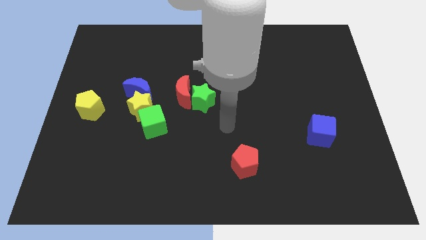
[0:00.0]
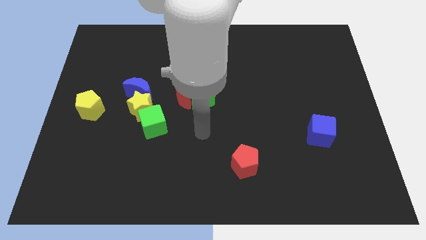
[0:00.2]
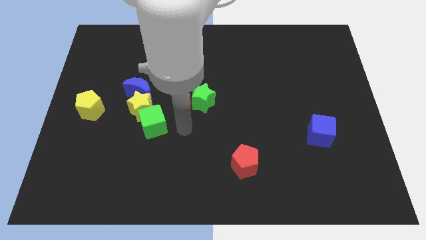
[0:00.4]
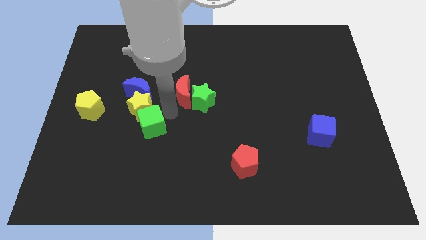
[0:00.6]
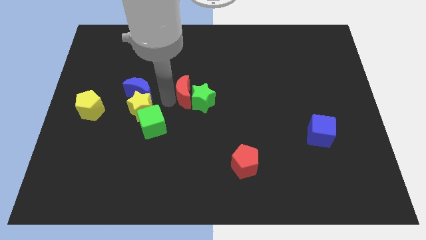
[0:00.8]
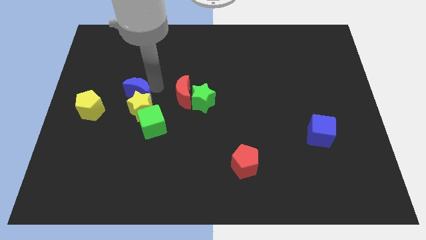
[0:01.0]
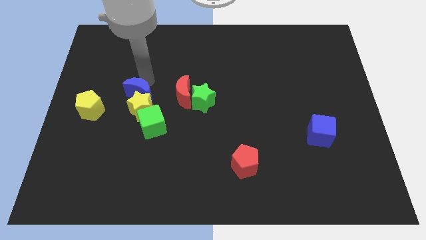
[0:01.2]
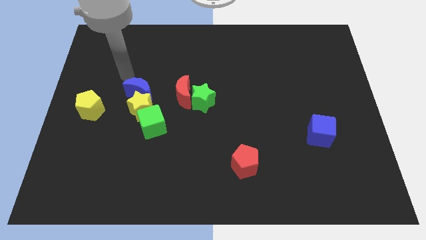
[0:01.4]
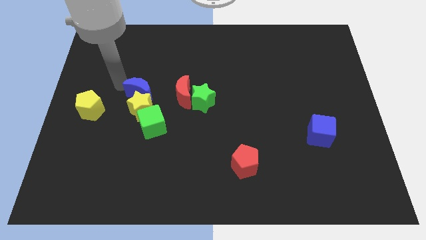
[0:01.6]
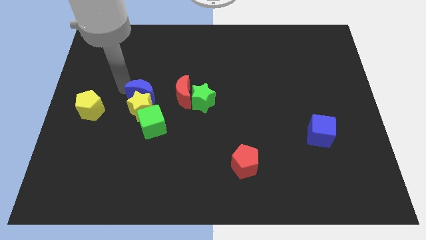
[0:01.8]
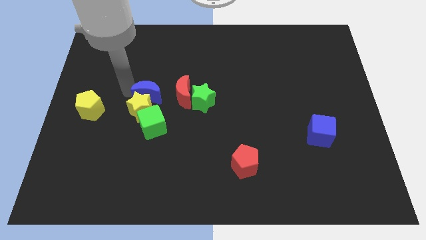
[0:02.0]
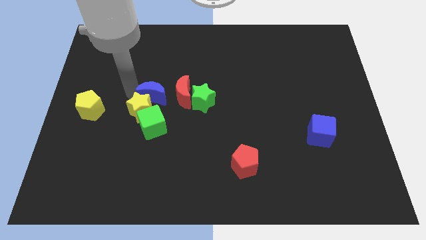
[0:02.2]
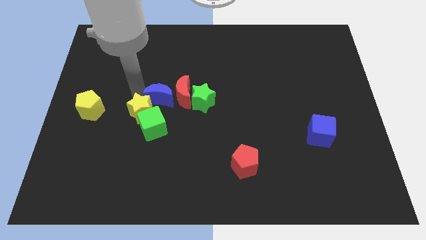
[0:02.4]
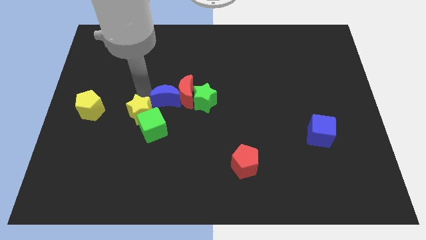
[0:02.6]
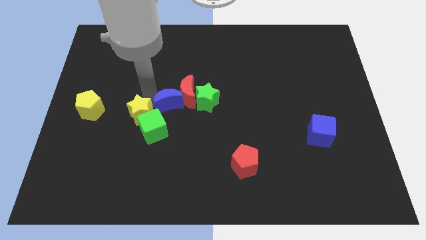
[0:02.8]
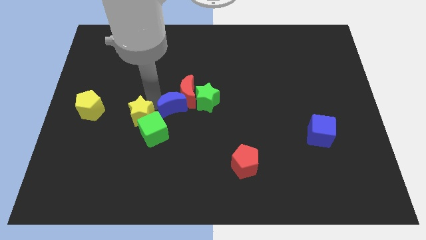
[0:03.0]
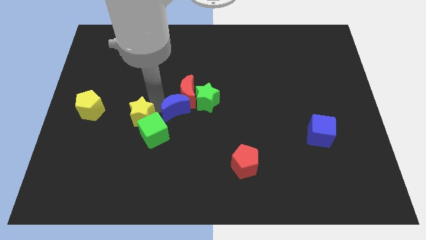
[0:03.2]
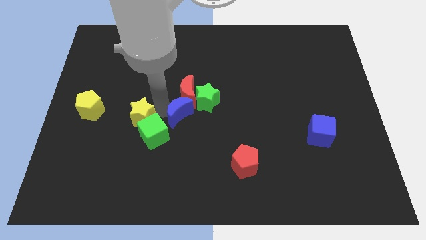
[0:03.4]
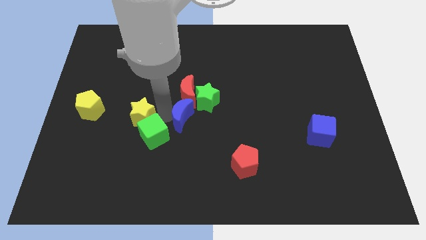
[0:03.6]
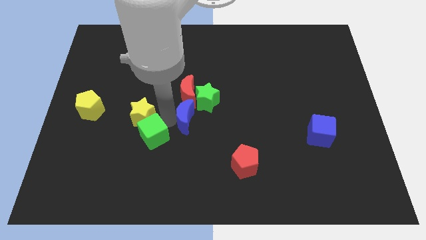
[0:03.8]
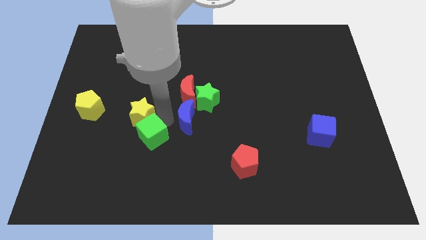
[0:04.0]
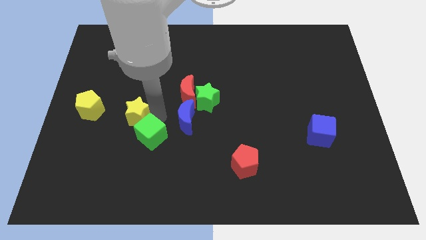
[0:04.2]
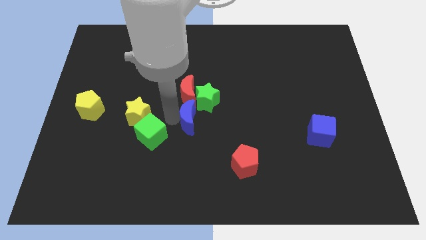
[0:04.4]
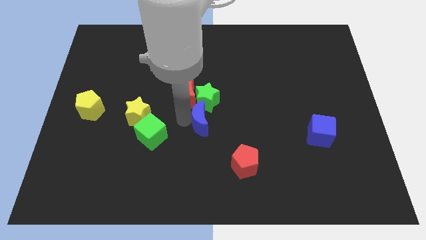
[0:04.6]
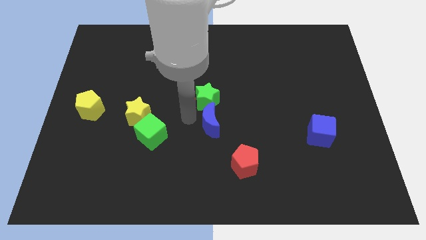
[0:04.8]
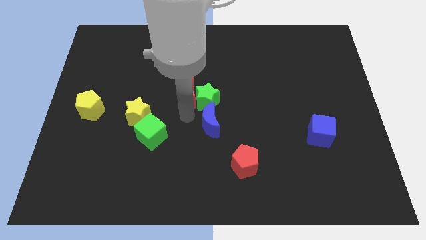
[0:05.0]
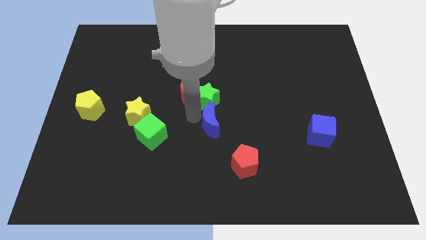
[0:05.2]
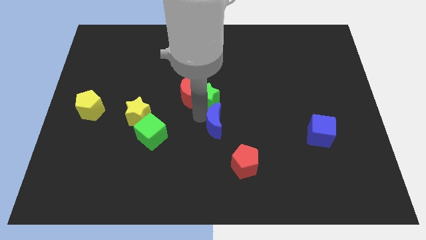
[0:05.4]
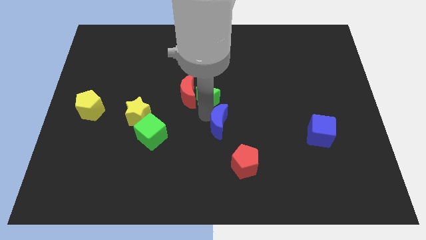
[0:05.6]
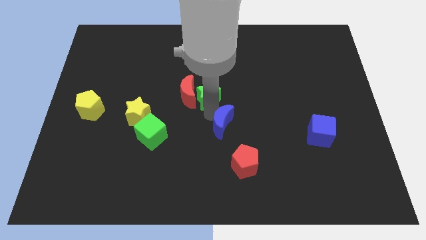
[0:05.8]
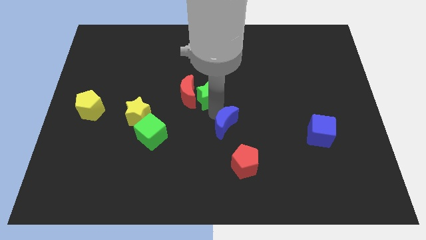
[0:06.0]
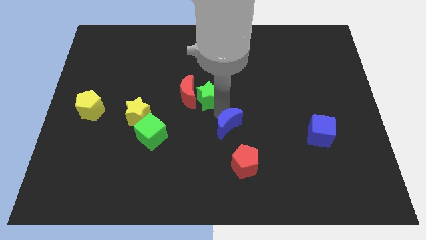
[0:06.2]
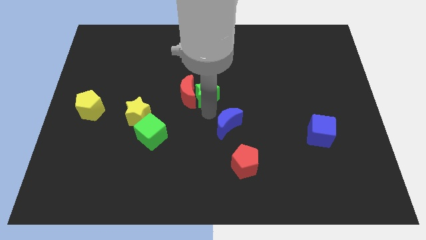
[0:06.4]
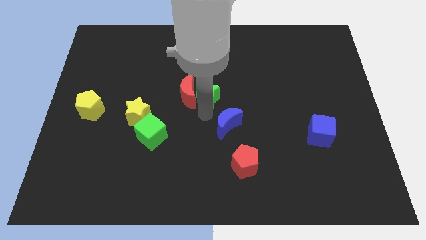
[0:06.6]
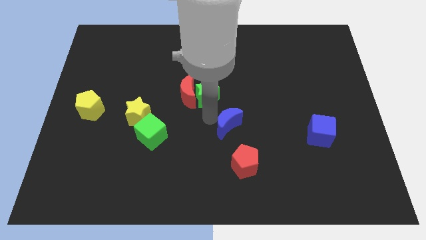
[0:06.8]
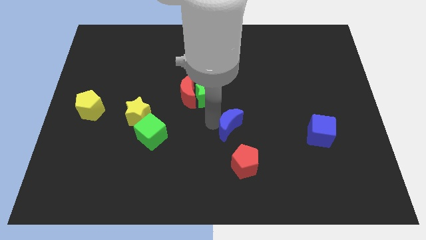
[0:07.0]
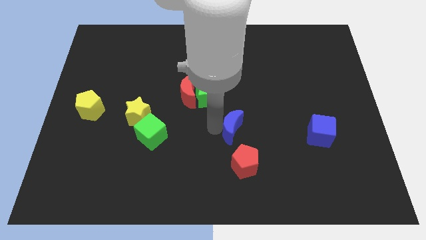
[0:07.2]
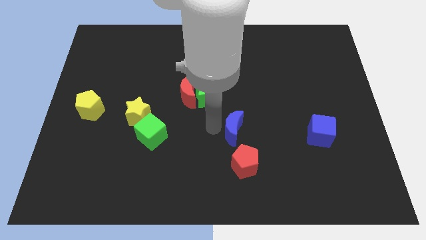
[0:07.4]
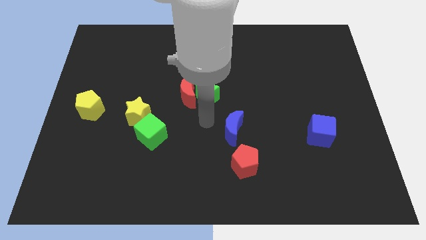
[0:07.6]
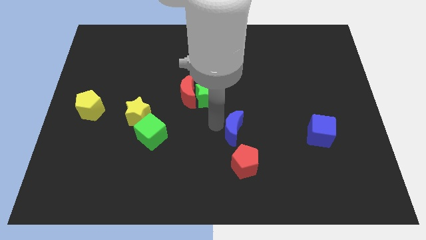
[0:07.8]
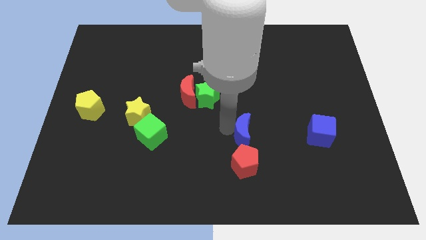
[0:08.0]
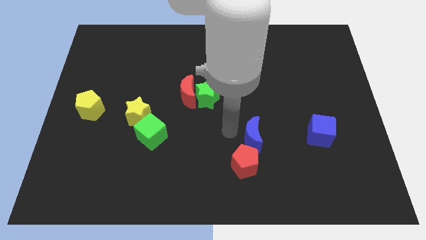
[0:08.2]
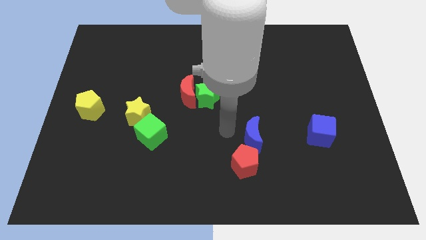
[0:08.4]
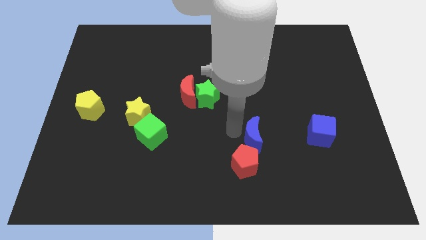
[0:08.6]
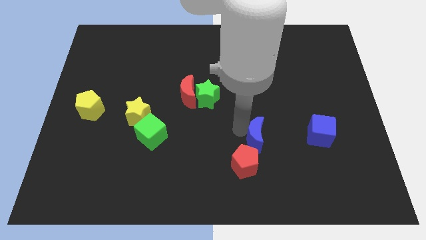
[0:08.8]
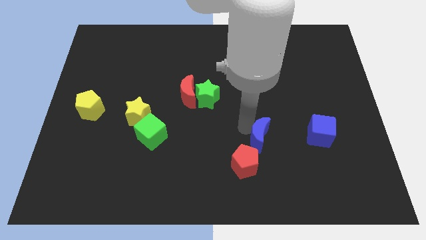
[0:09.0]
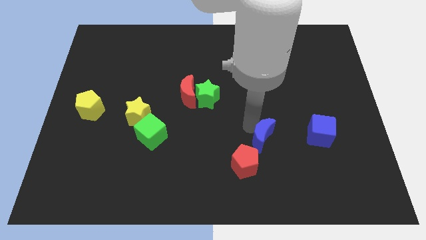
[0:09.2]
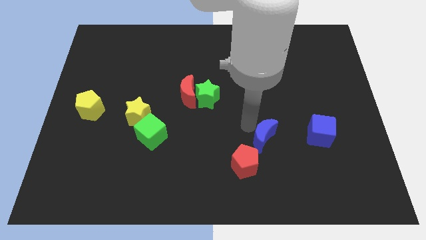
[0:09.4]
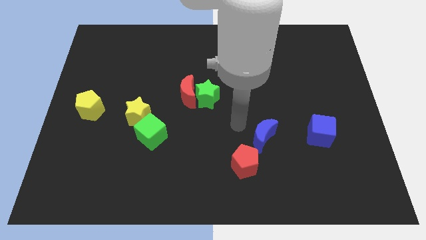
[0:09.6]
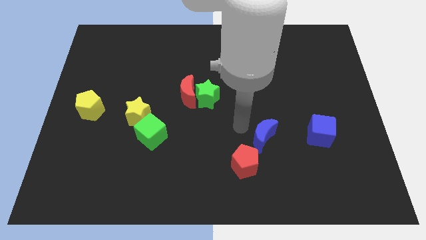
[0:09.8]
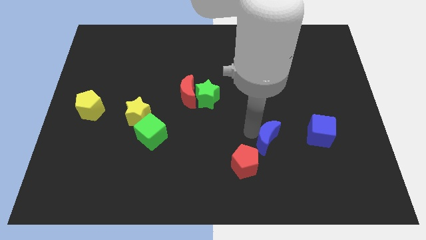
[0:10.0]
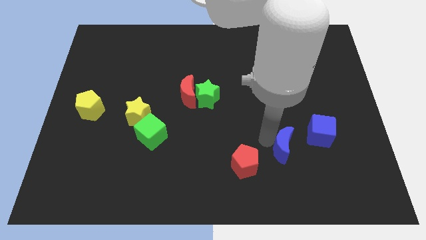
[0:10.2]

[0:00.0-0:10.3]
move the blue moon to the bottom left of the blue cube

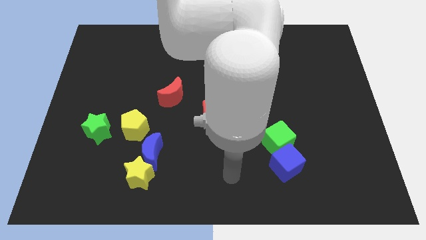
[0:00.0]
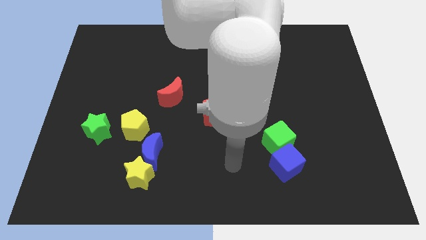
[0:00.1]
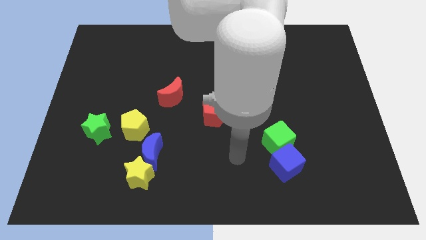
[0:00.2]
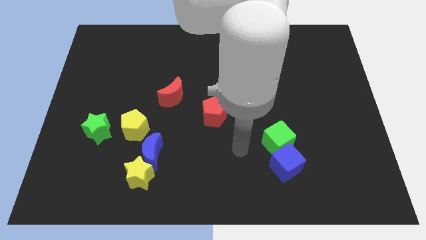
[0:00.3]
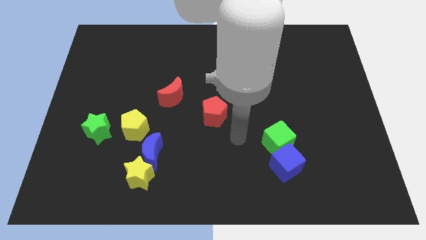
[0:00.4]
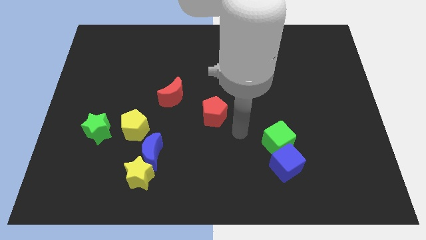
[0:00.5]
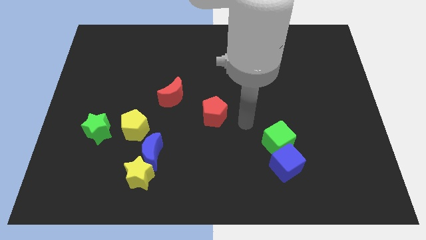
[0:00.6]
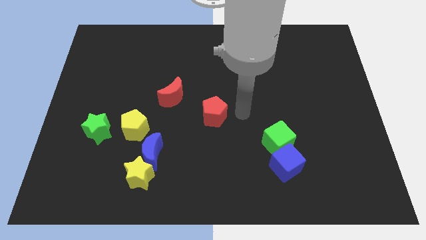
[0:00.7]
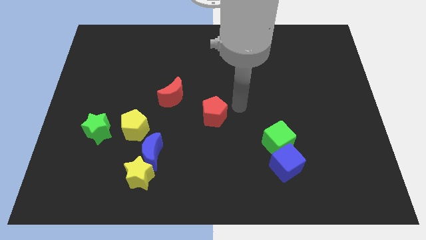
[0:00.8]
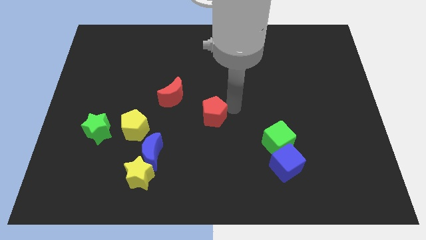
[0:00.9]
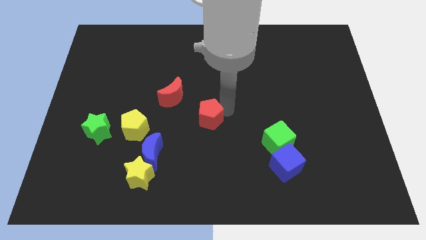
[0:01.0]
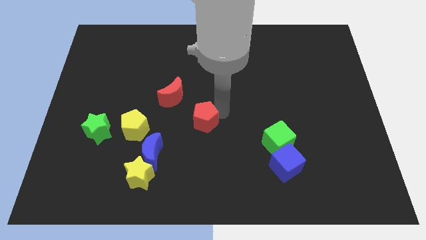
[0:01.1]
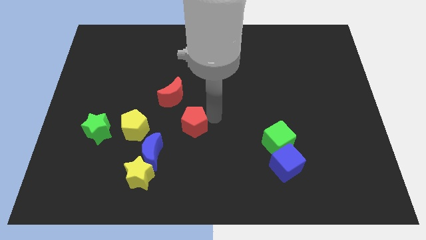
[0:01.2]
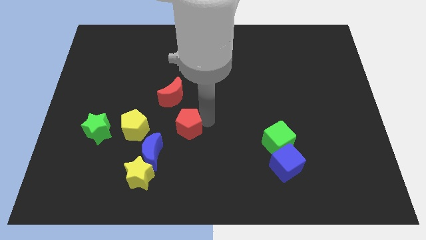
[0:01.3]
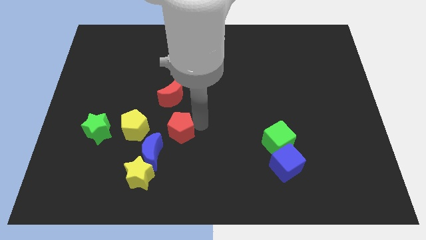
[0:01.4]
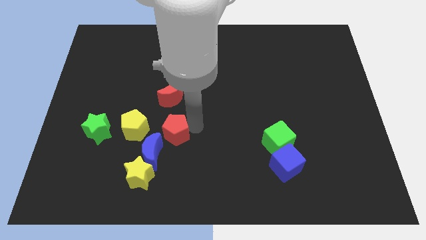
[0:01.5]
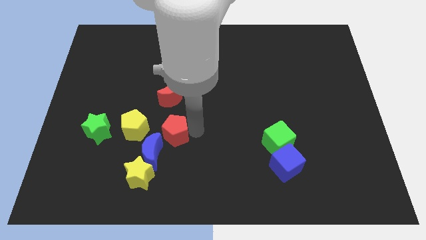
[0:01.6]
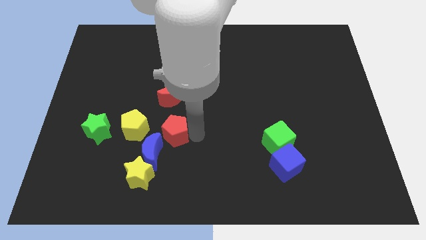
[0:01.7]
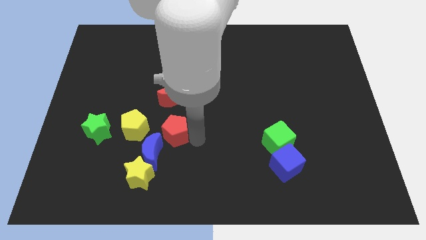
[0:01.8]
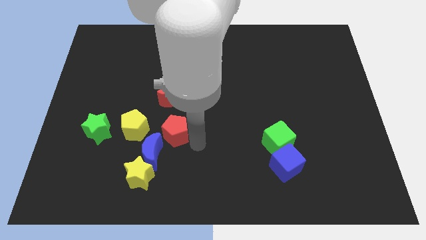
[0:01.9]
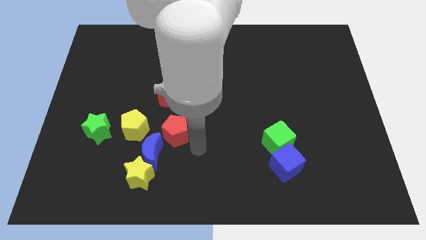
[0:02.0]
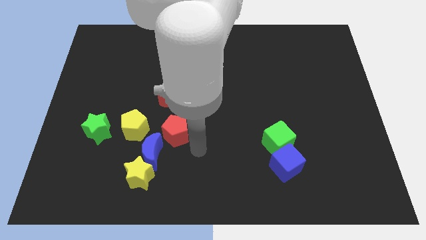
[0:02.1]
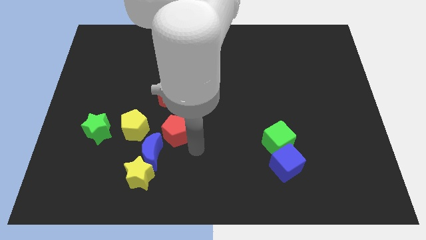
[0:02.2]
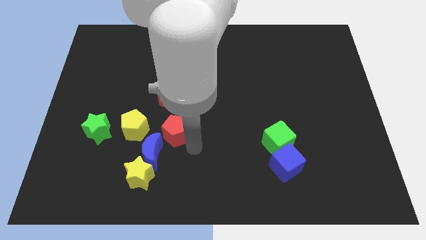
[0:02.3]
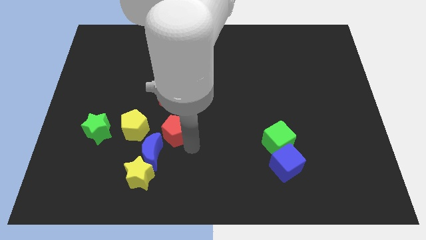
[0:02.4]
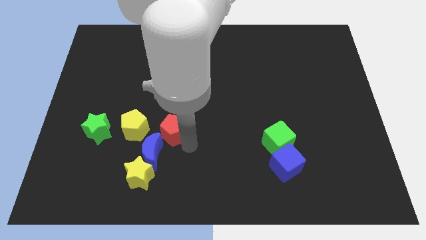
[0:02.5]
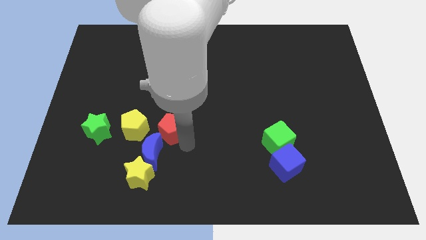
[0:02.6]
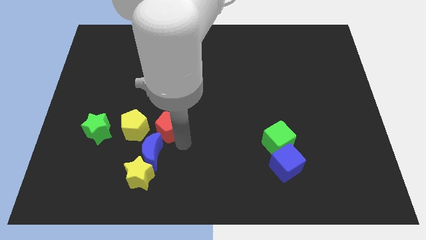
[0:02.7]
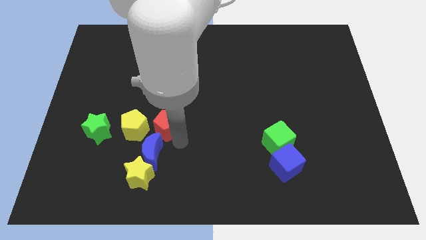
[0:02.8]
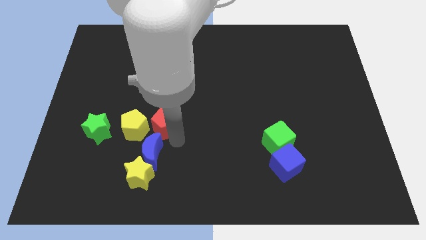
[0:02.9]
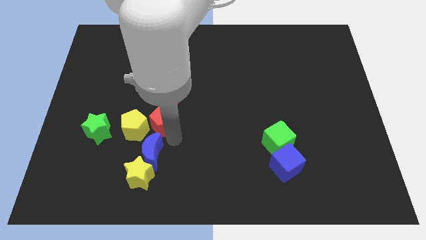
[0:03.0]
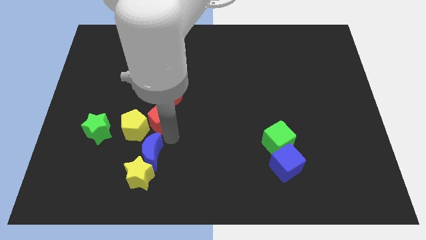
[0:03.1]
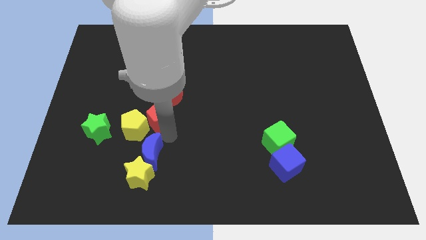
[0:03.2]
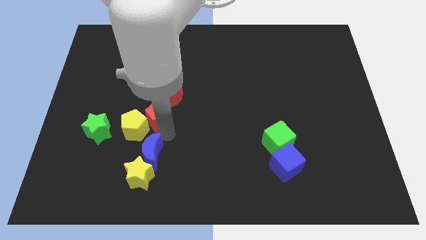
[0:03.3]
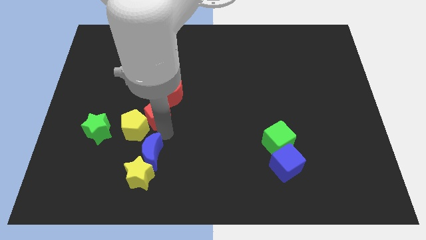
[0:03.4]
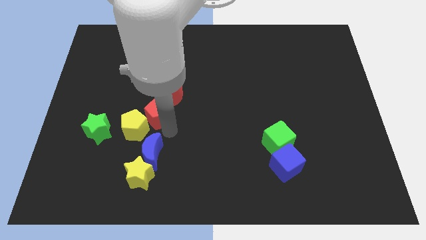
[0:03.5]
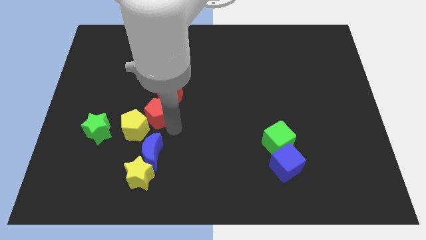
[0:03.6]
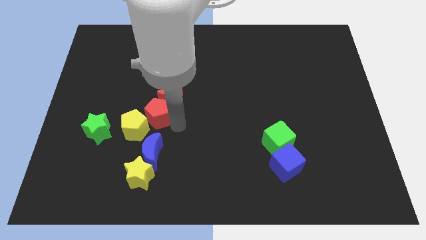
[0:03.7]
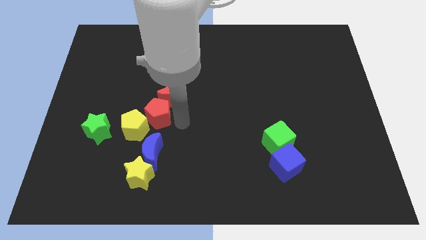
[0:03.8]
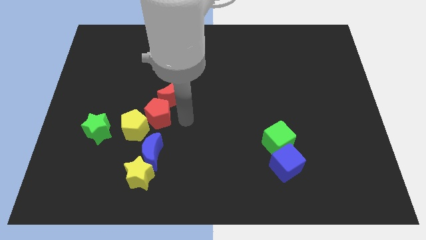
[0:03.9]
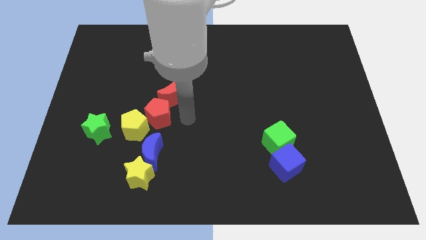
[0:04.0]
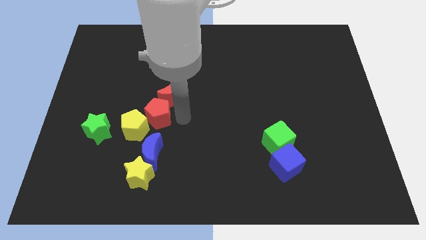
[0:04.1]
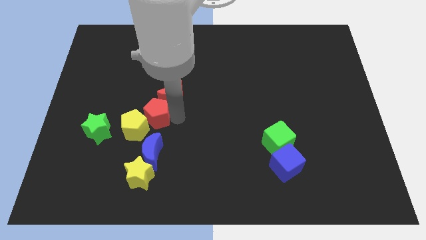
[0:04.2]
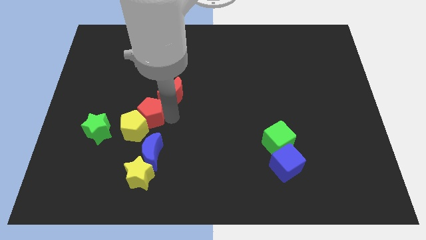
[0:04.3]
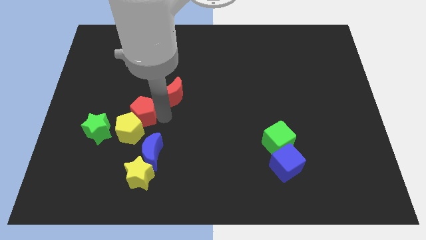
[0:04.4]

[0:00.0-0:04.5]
slide the red pentagon to the top right side of the green star
